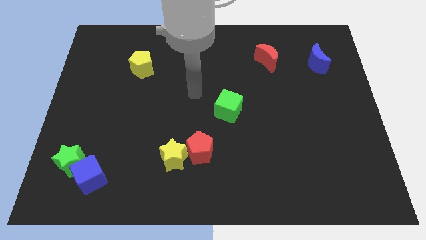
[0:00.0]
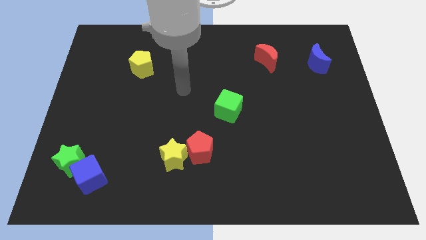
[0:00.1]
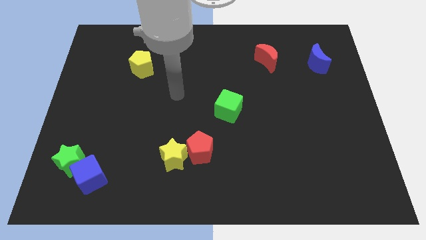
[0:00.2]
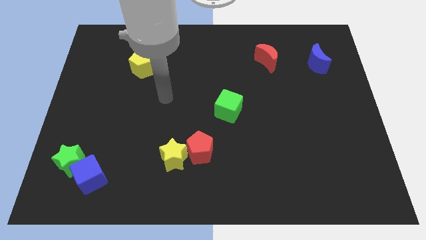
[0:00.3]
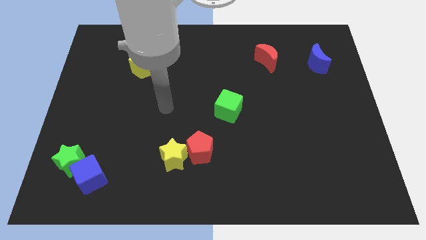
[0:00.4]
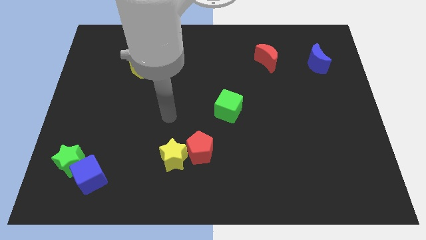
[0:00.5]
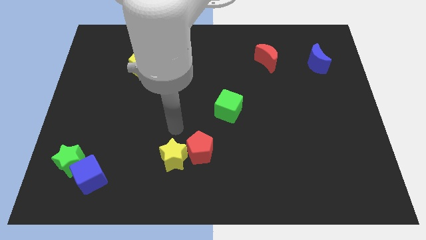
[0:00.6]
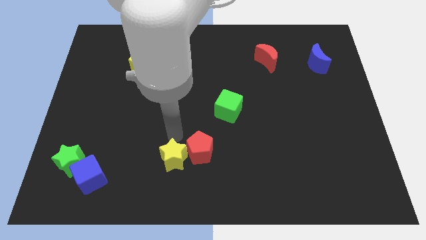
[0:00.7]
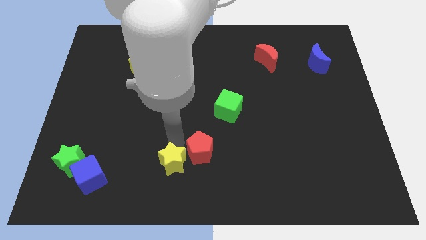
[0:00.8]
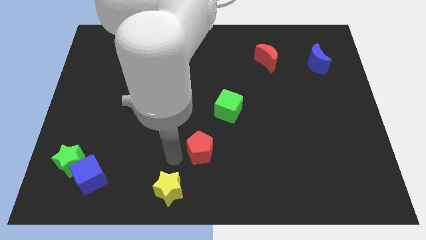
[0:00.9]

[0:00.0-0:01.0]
separate the red pentagon from the yellow star

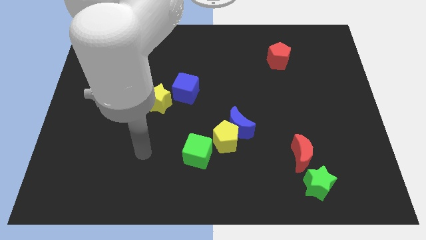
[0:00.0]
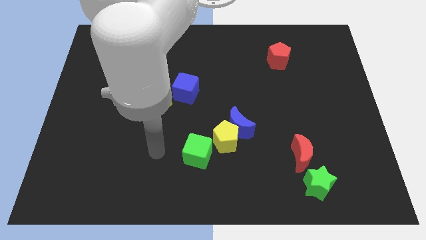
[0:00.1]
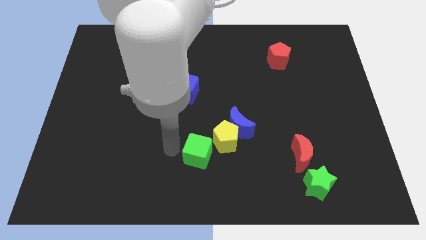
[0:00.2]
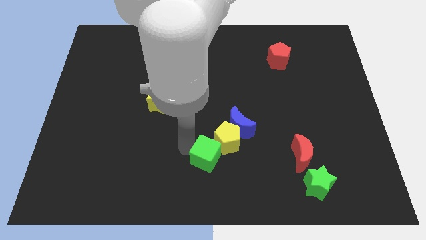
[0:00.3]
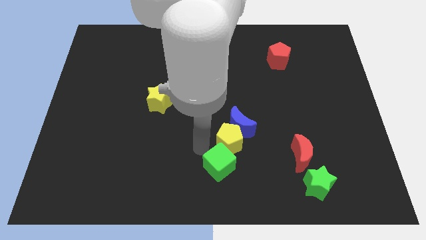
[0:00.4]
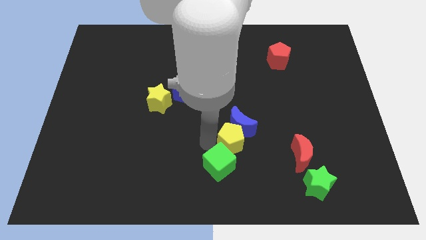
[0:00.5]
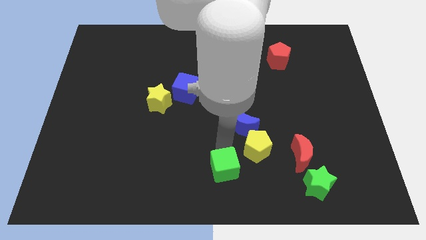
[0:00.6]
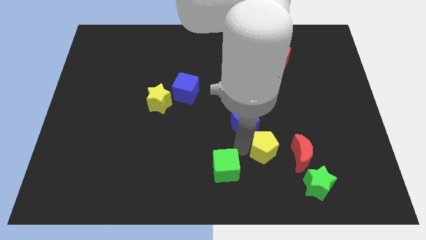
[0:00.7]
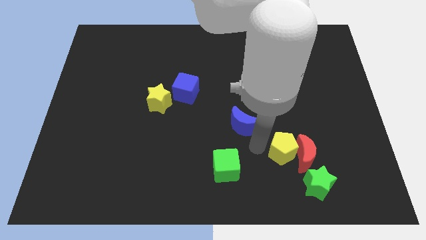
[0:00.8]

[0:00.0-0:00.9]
move the blue moon away from the yellow pentagon

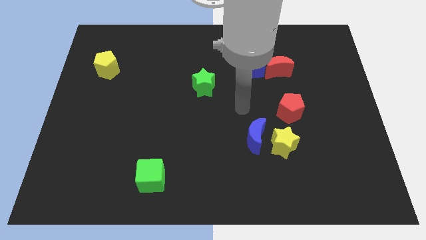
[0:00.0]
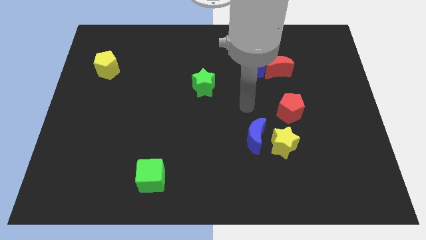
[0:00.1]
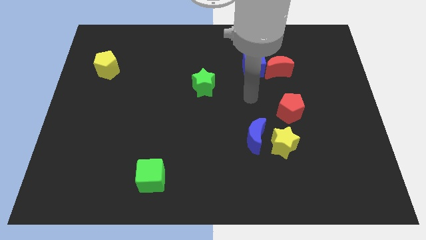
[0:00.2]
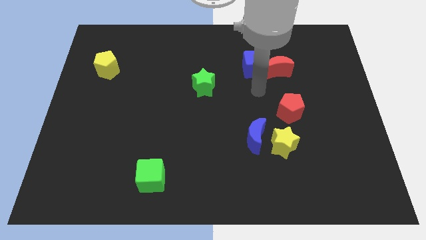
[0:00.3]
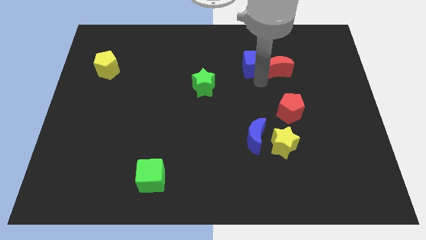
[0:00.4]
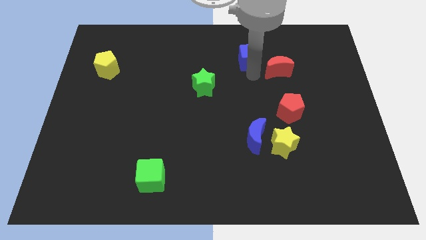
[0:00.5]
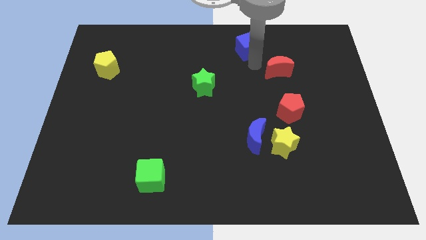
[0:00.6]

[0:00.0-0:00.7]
move the red moon away from the blue cube

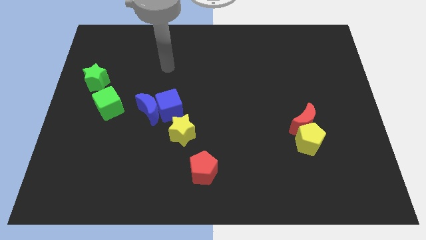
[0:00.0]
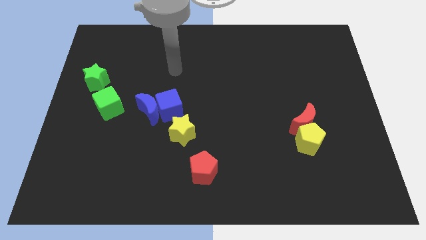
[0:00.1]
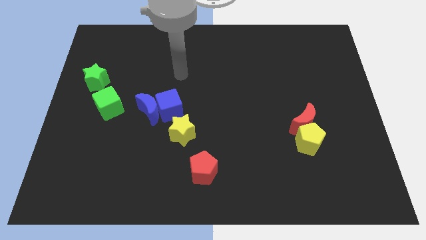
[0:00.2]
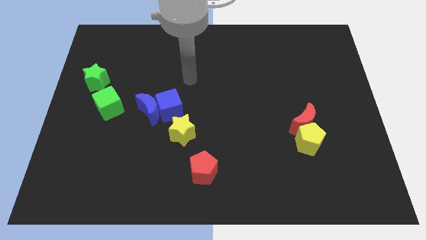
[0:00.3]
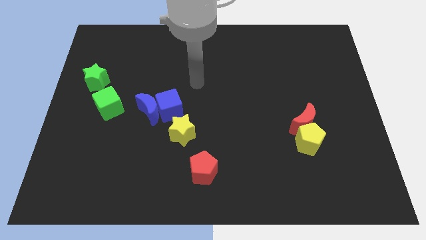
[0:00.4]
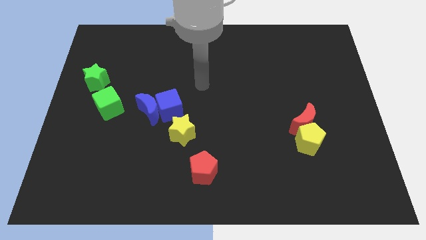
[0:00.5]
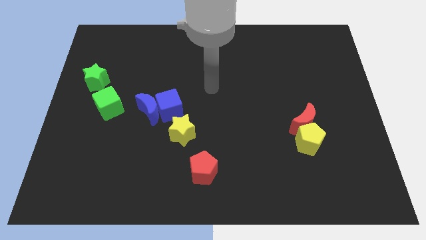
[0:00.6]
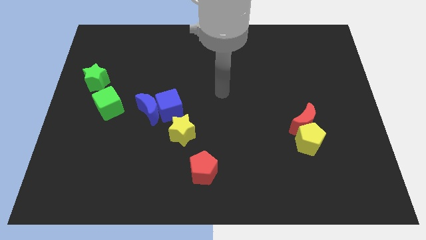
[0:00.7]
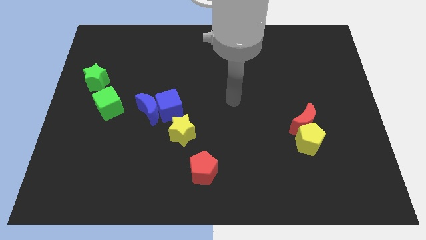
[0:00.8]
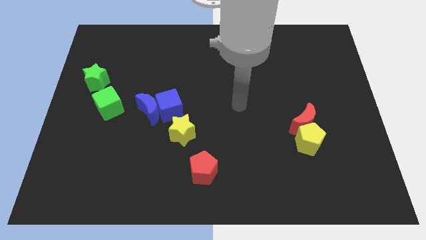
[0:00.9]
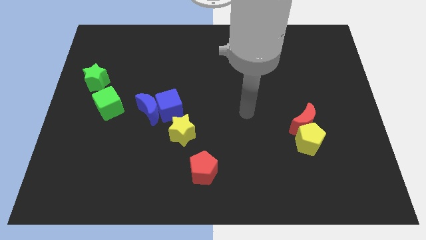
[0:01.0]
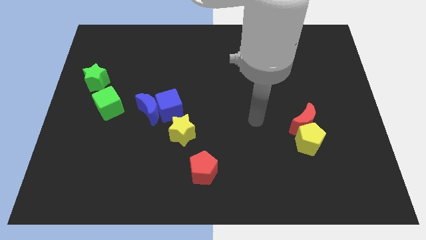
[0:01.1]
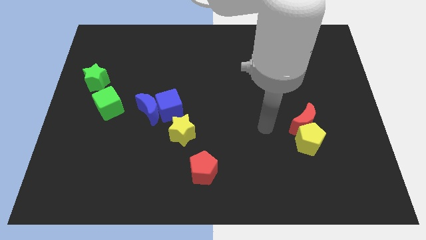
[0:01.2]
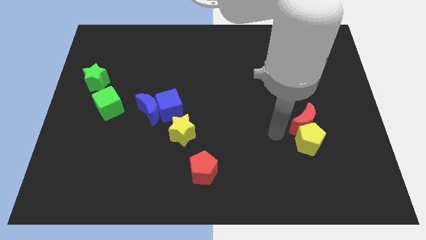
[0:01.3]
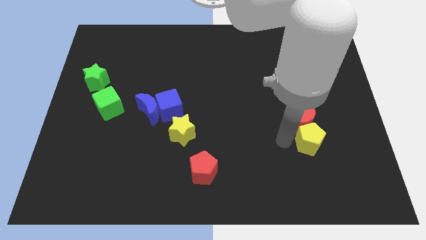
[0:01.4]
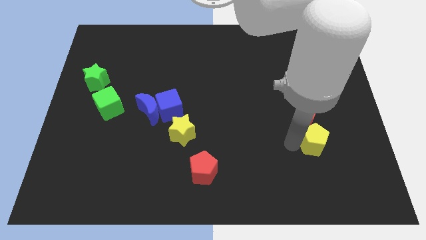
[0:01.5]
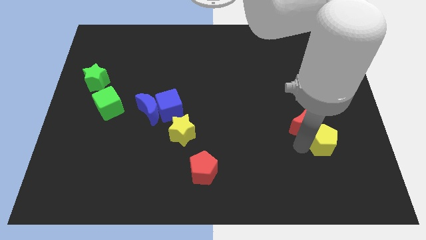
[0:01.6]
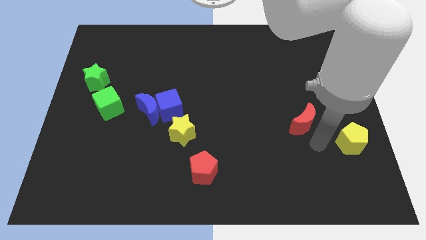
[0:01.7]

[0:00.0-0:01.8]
separate the red moon from the yellow pentagon

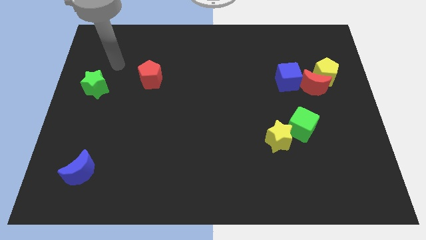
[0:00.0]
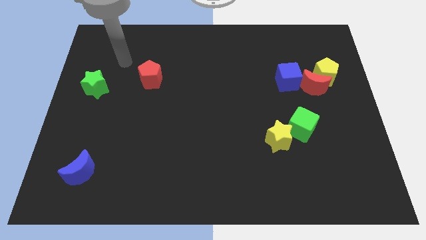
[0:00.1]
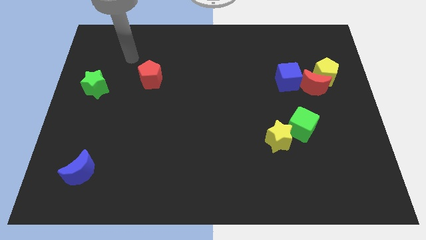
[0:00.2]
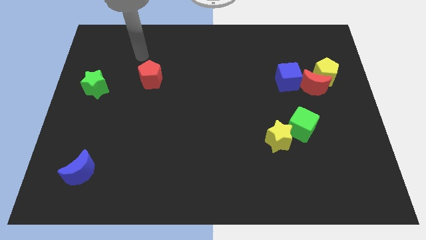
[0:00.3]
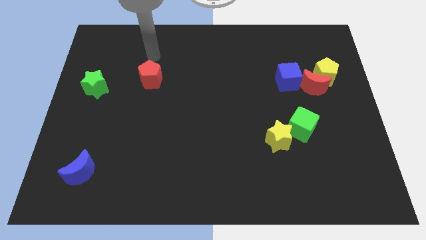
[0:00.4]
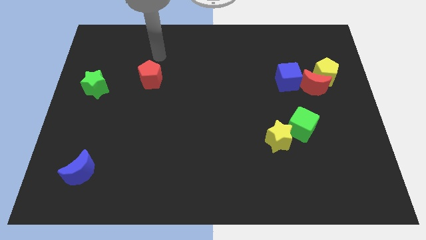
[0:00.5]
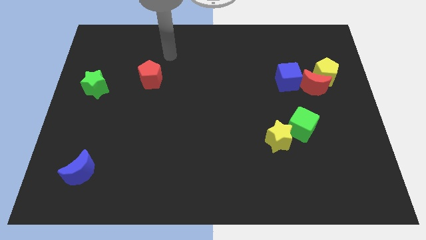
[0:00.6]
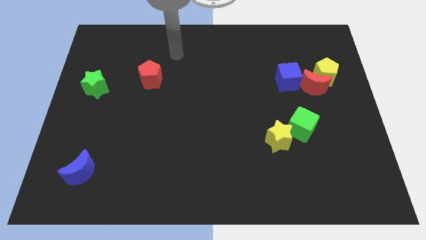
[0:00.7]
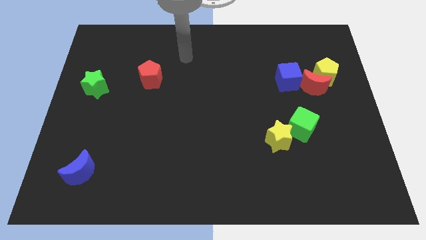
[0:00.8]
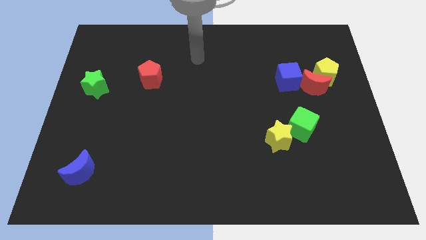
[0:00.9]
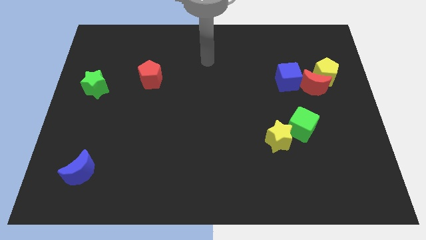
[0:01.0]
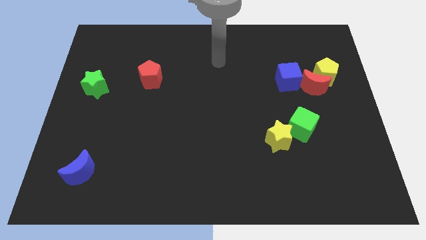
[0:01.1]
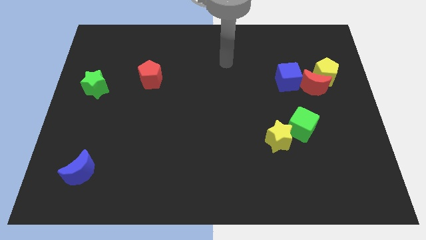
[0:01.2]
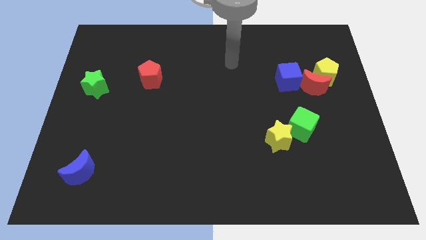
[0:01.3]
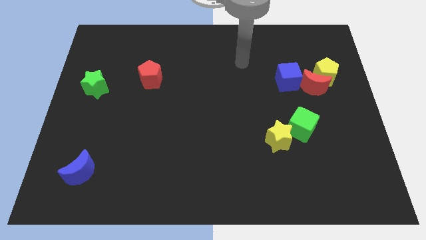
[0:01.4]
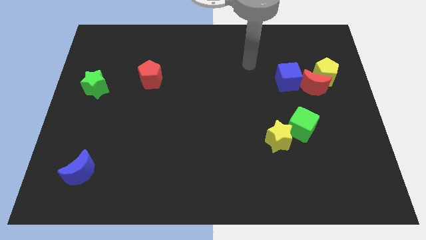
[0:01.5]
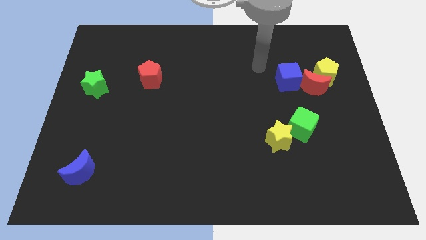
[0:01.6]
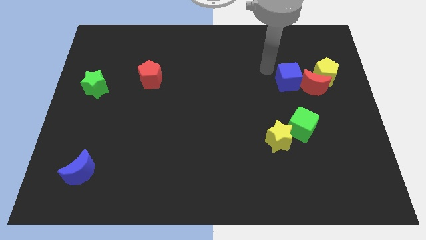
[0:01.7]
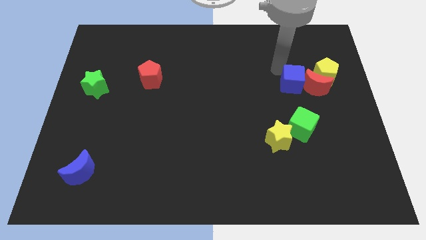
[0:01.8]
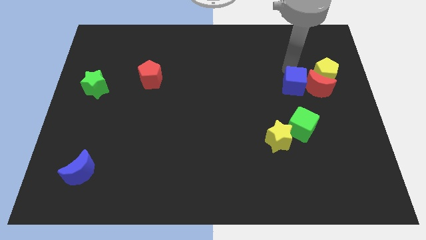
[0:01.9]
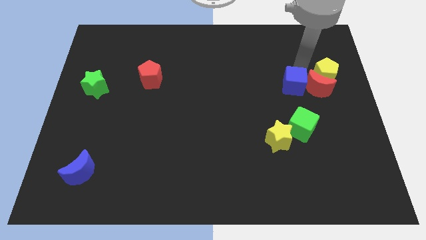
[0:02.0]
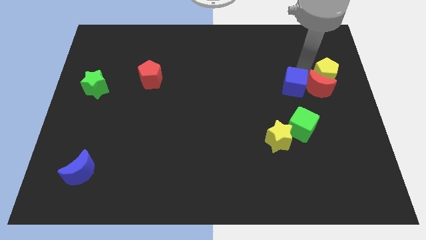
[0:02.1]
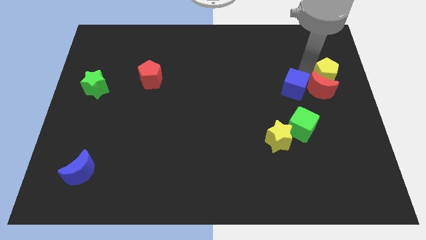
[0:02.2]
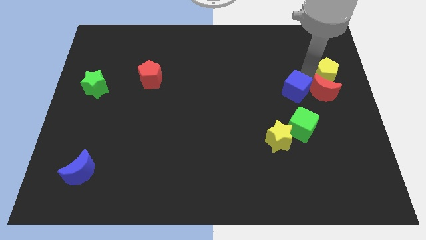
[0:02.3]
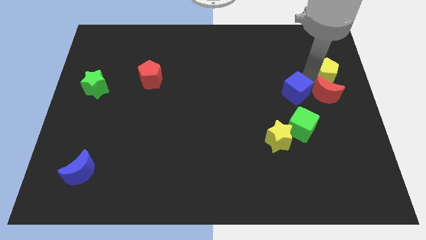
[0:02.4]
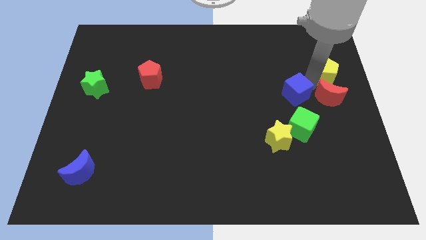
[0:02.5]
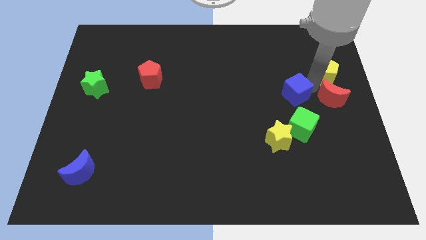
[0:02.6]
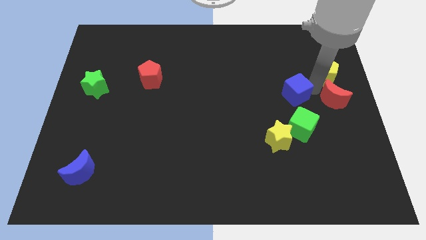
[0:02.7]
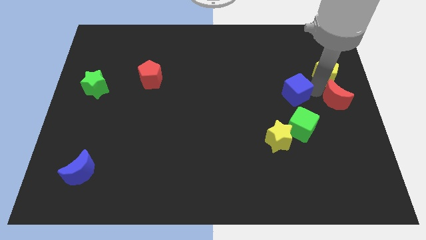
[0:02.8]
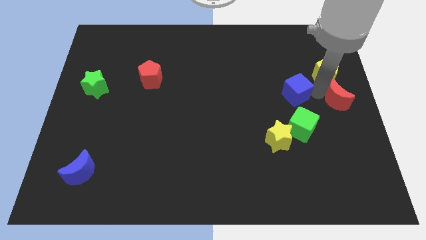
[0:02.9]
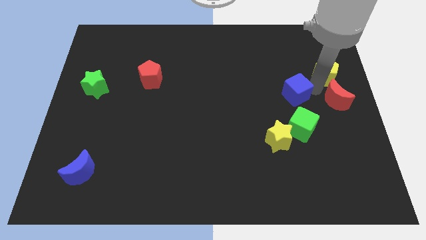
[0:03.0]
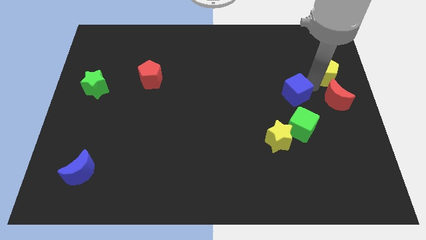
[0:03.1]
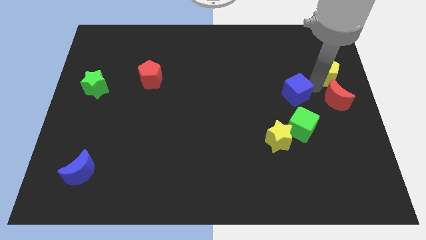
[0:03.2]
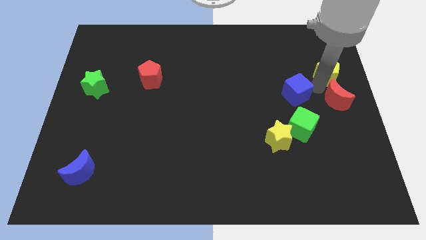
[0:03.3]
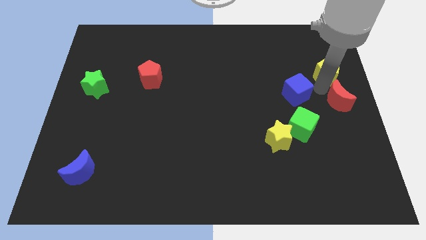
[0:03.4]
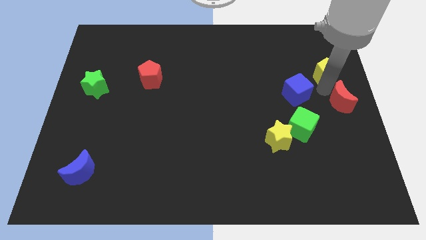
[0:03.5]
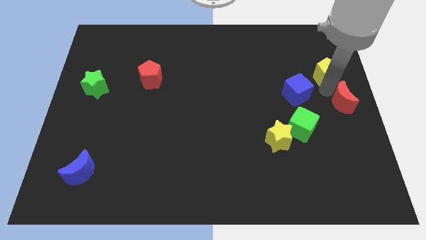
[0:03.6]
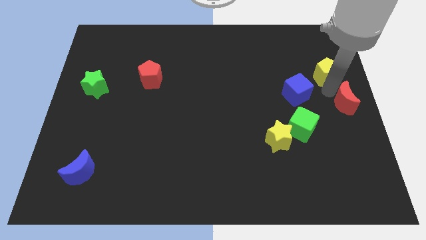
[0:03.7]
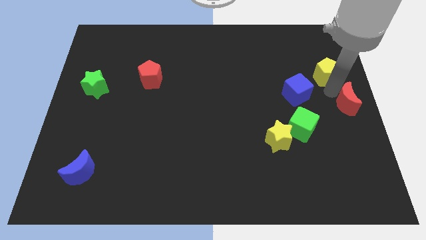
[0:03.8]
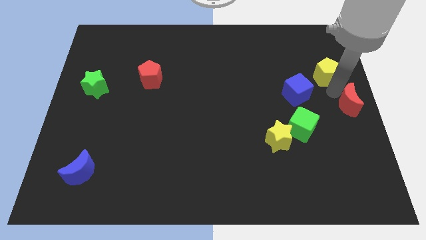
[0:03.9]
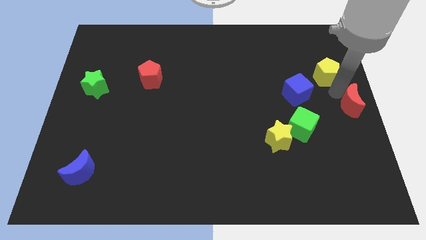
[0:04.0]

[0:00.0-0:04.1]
pull the red moon apart from the yellow pentagon and blue cube

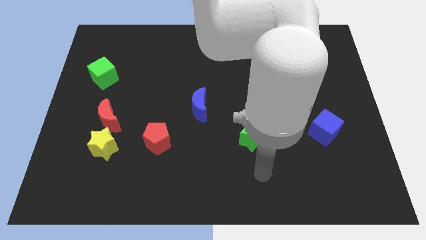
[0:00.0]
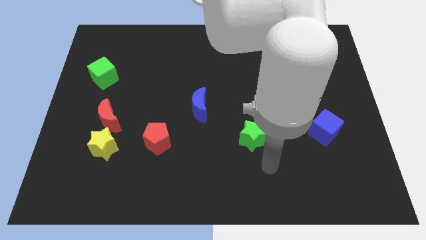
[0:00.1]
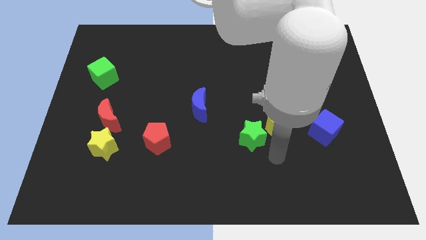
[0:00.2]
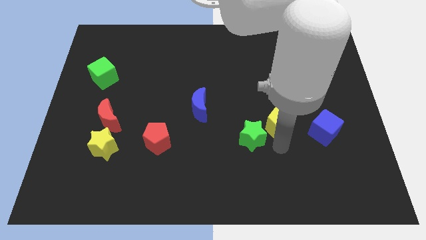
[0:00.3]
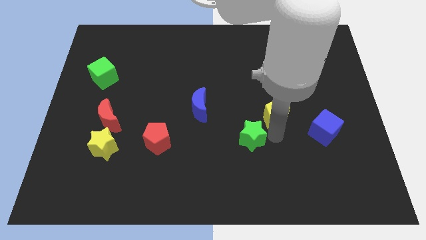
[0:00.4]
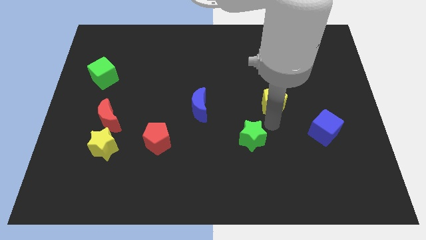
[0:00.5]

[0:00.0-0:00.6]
move the green star away from the yellow pentagon
